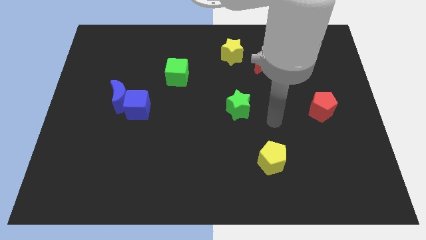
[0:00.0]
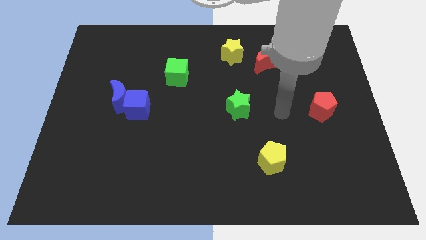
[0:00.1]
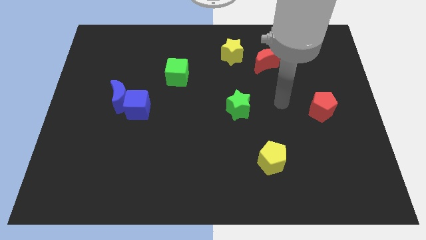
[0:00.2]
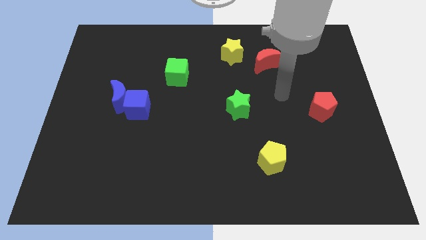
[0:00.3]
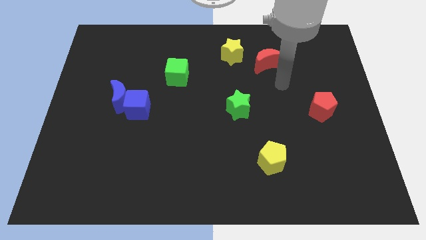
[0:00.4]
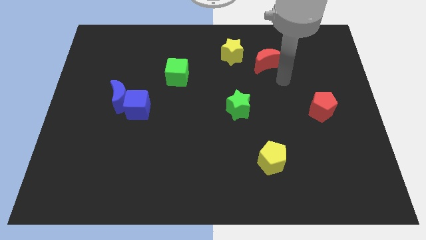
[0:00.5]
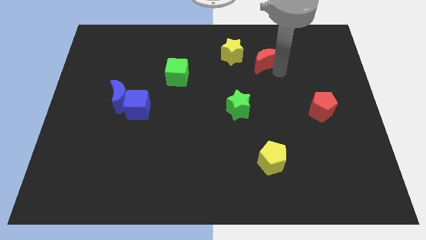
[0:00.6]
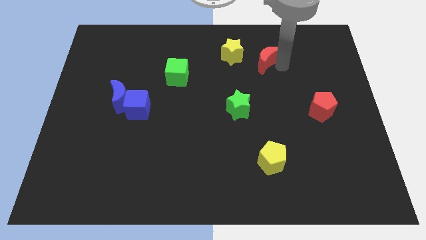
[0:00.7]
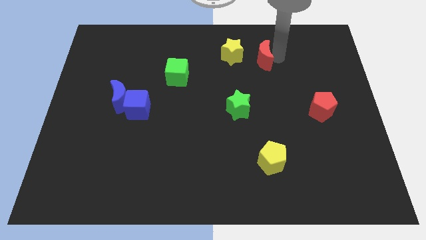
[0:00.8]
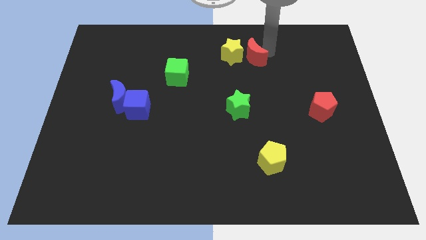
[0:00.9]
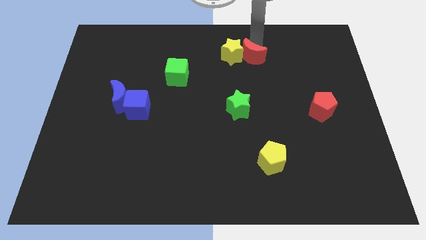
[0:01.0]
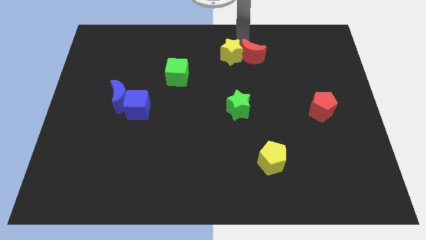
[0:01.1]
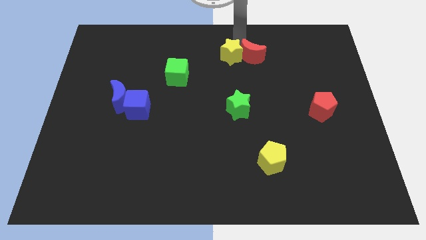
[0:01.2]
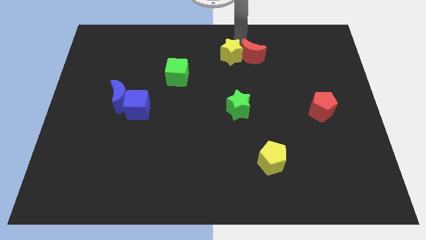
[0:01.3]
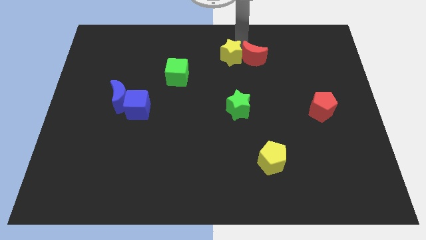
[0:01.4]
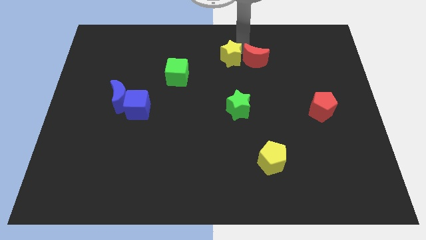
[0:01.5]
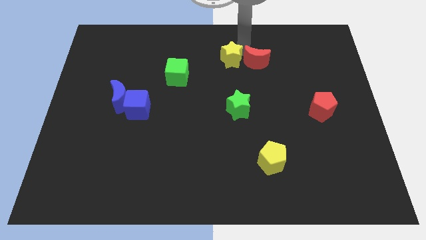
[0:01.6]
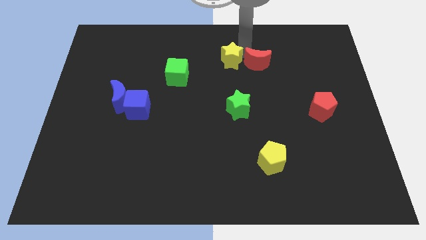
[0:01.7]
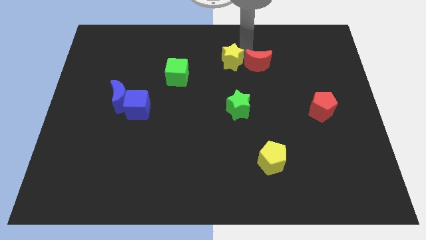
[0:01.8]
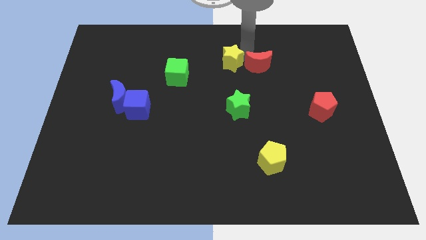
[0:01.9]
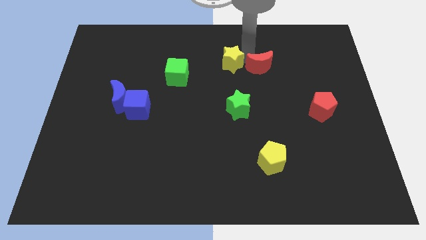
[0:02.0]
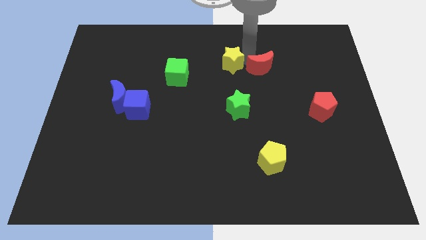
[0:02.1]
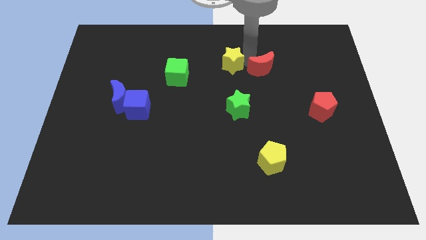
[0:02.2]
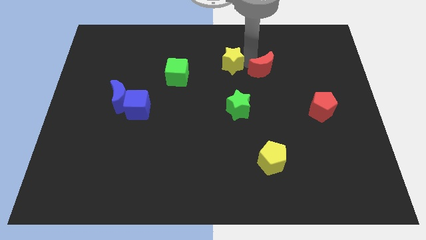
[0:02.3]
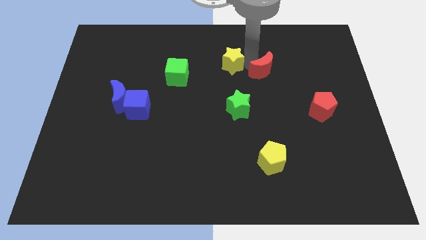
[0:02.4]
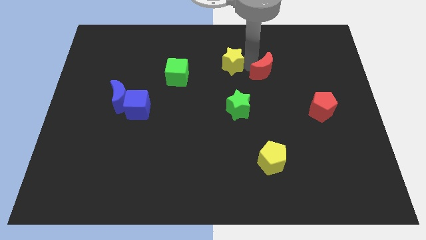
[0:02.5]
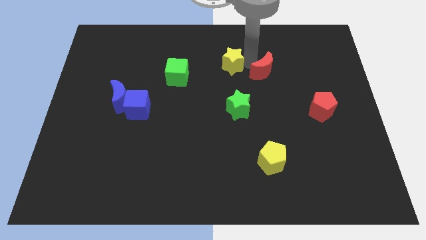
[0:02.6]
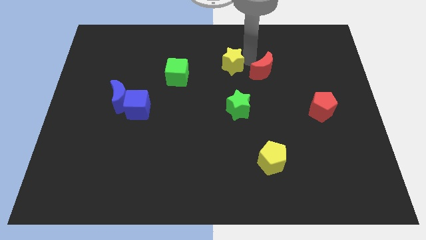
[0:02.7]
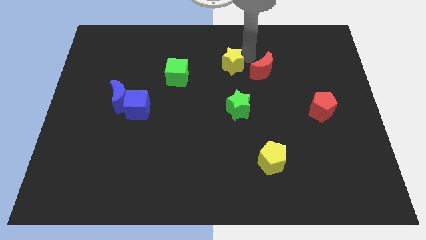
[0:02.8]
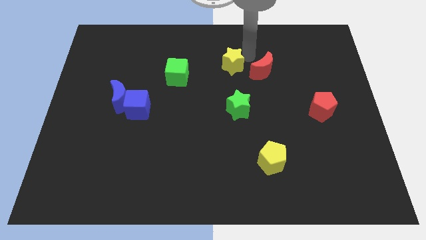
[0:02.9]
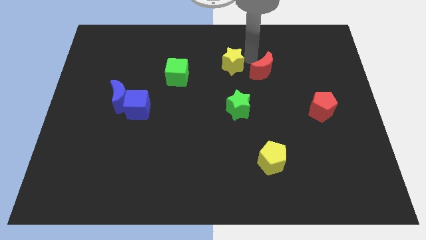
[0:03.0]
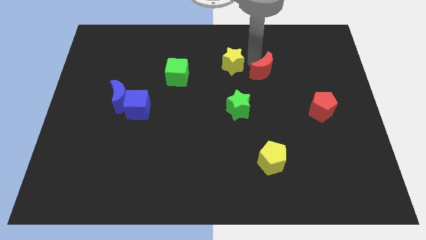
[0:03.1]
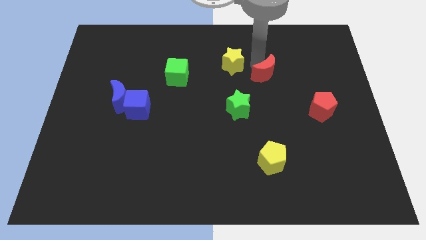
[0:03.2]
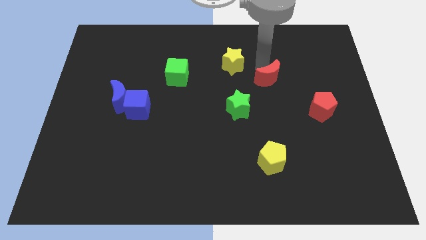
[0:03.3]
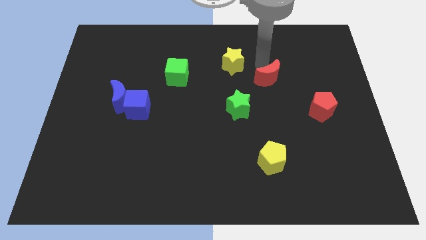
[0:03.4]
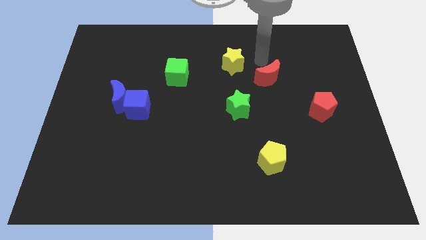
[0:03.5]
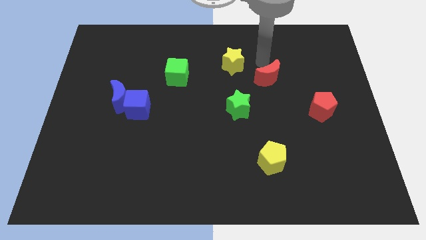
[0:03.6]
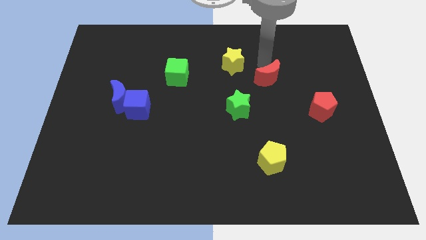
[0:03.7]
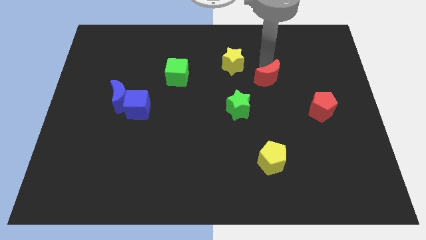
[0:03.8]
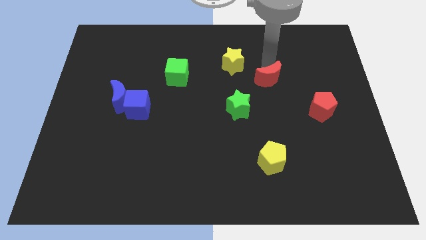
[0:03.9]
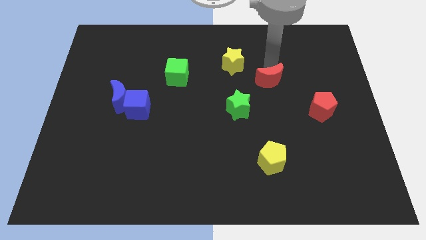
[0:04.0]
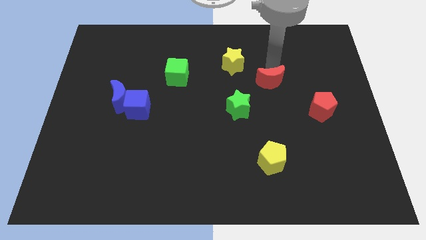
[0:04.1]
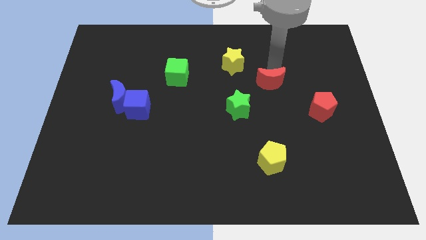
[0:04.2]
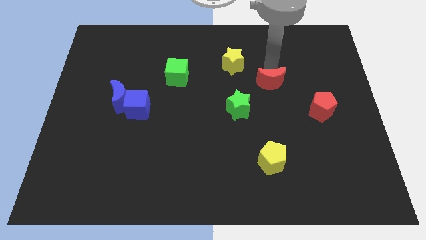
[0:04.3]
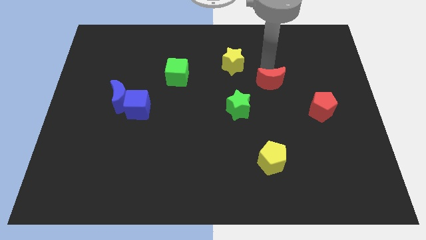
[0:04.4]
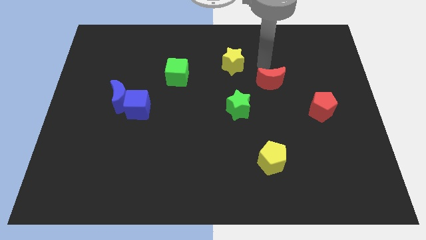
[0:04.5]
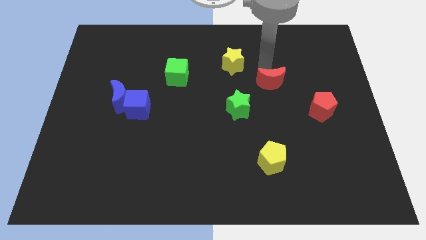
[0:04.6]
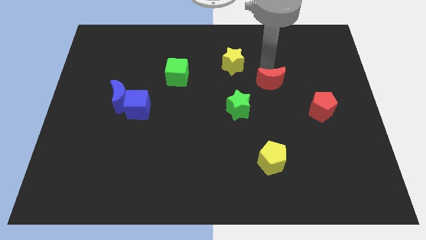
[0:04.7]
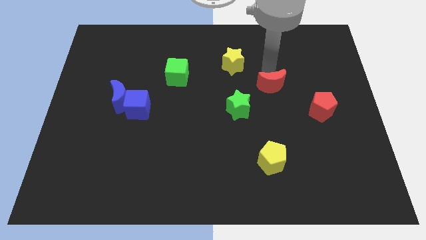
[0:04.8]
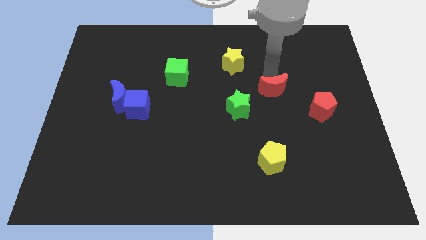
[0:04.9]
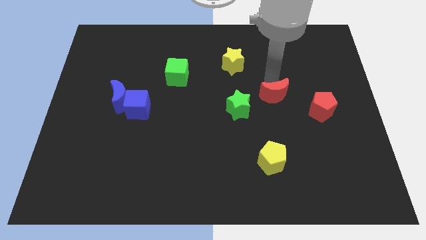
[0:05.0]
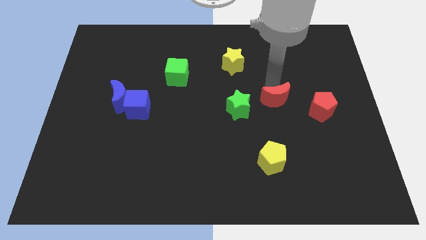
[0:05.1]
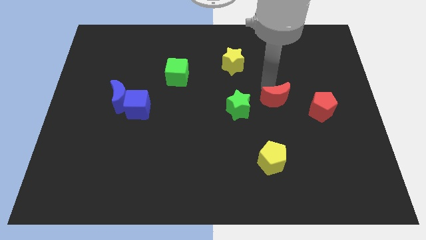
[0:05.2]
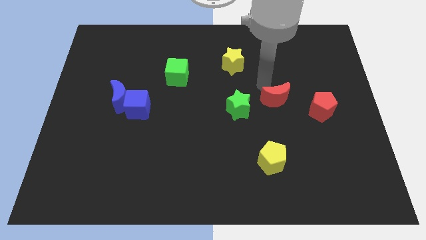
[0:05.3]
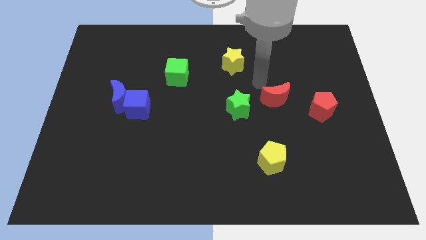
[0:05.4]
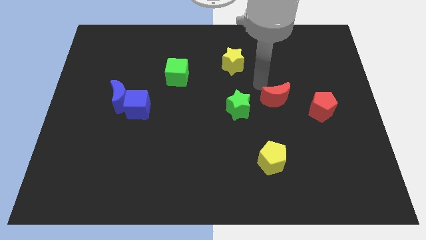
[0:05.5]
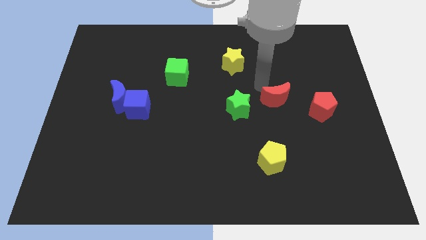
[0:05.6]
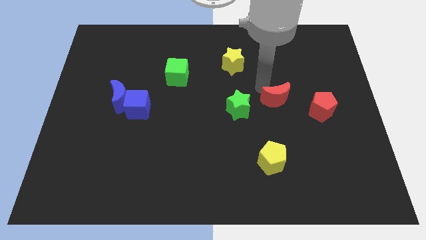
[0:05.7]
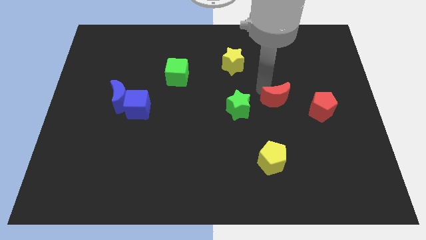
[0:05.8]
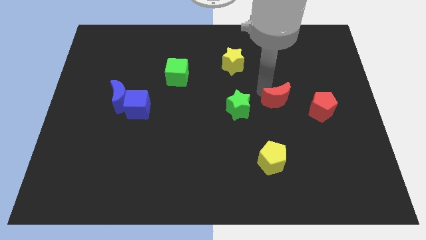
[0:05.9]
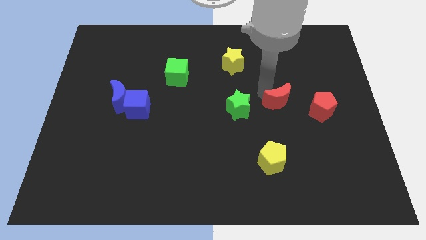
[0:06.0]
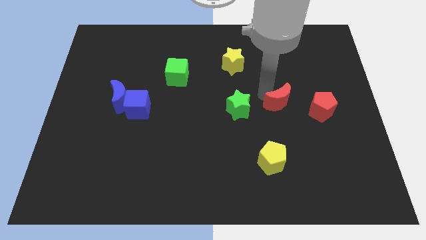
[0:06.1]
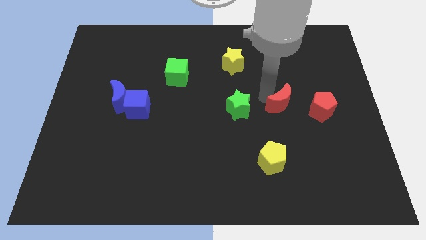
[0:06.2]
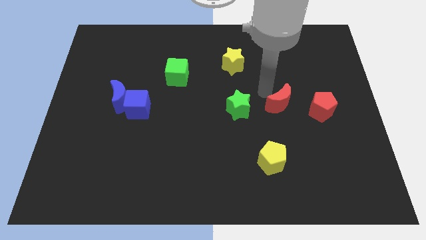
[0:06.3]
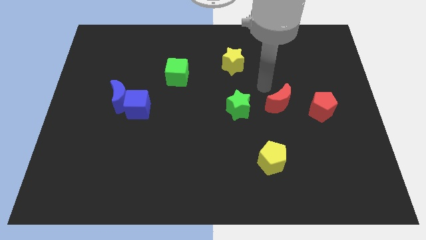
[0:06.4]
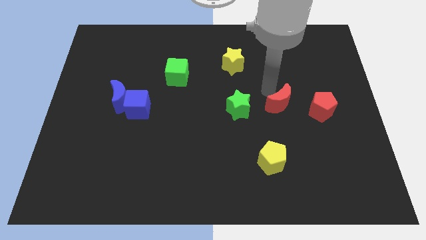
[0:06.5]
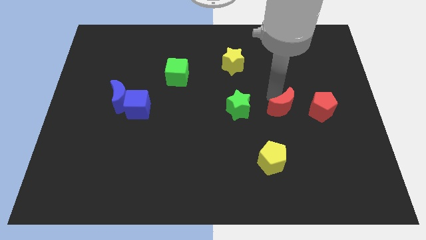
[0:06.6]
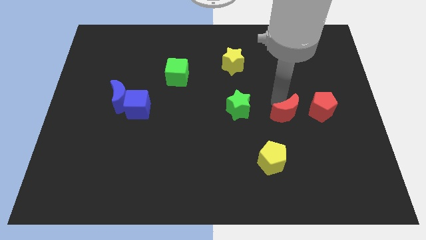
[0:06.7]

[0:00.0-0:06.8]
push the red moon diagonally down and to the left of the red pentagon
